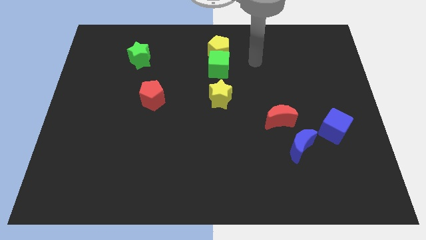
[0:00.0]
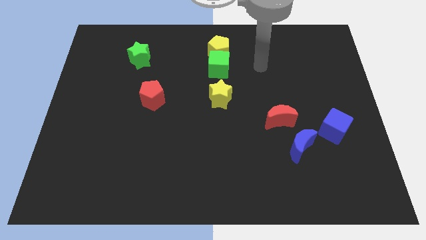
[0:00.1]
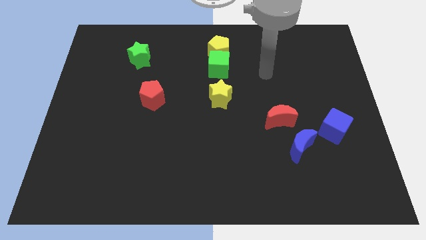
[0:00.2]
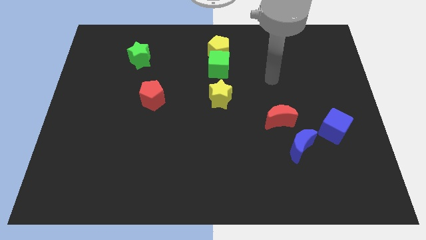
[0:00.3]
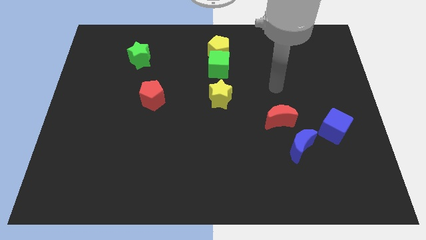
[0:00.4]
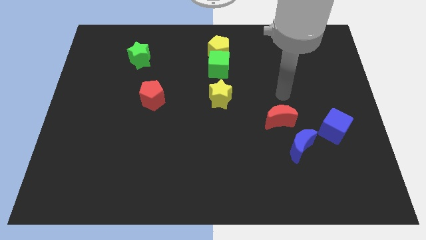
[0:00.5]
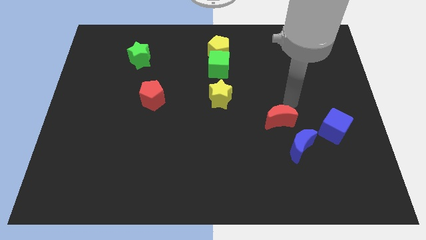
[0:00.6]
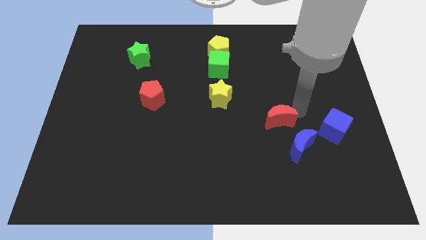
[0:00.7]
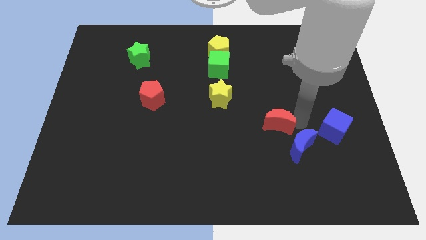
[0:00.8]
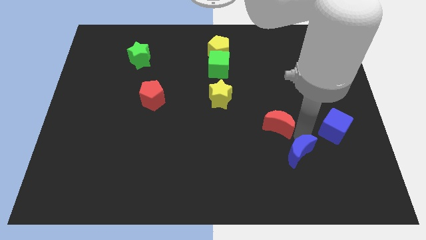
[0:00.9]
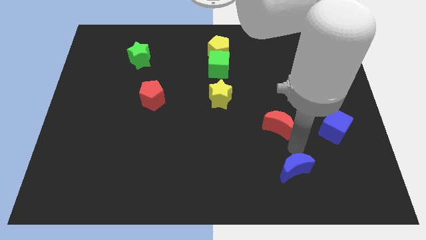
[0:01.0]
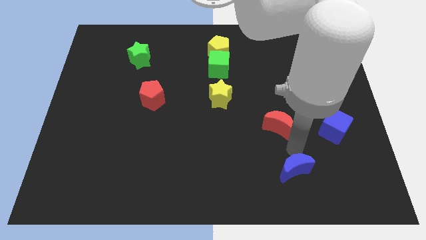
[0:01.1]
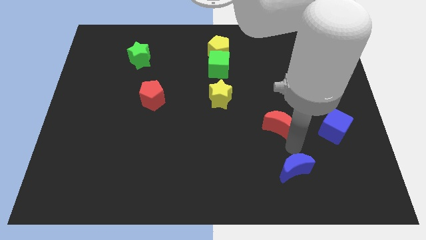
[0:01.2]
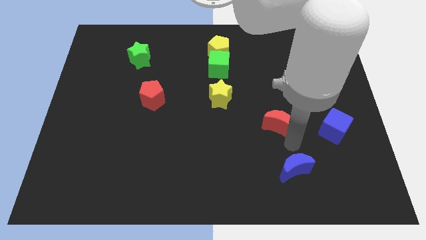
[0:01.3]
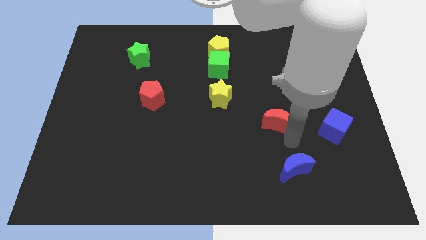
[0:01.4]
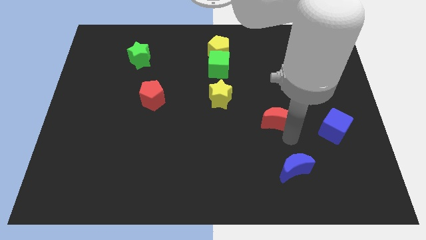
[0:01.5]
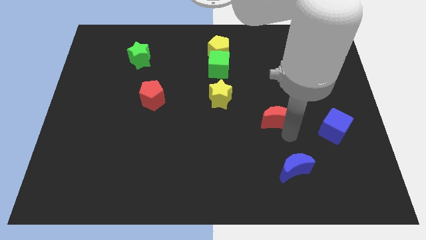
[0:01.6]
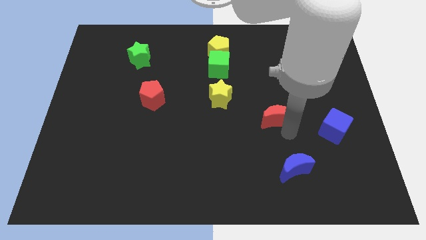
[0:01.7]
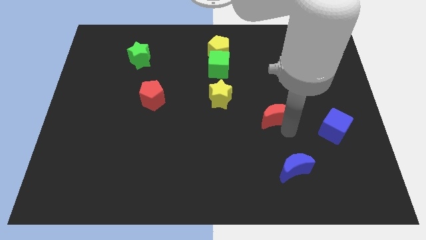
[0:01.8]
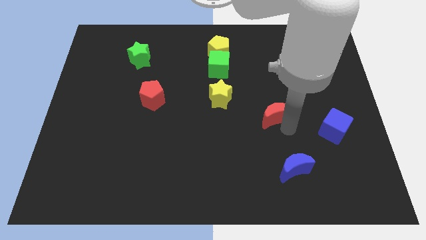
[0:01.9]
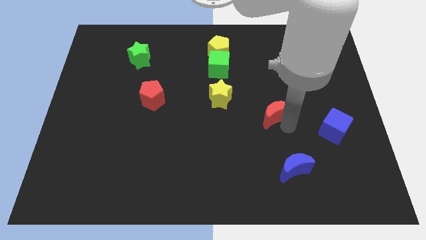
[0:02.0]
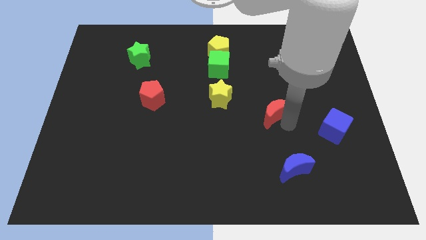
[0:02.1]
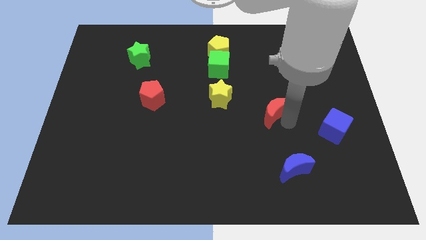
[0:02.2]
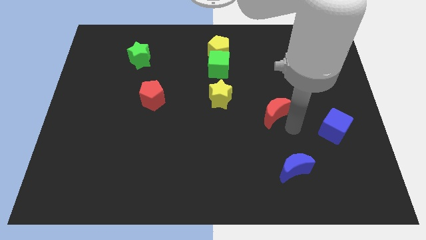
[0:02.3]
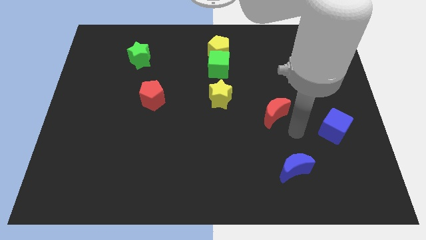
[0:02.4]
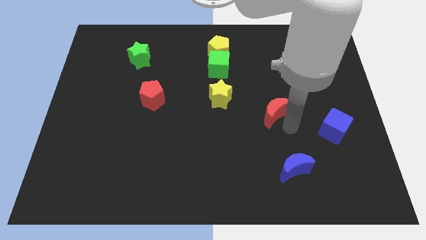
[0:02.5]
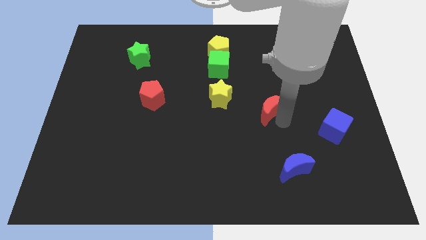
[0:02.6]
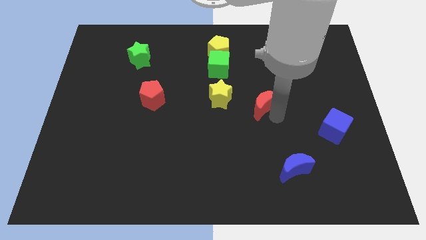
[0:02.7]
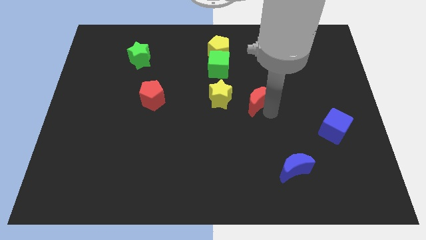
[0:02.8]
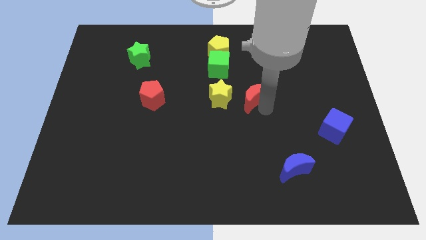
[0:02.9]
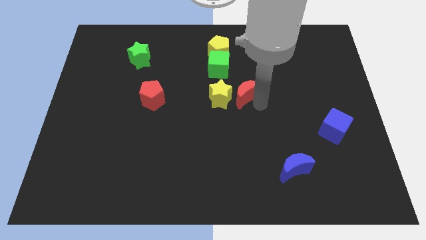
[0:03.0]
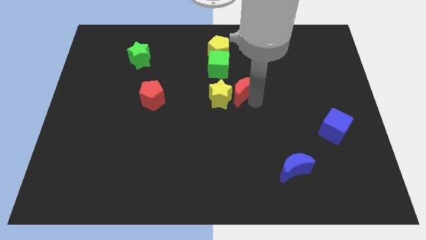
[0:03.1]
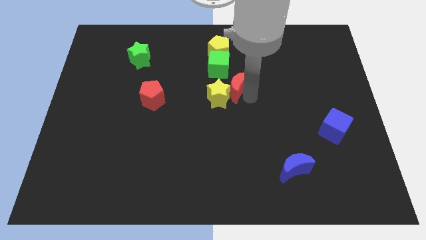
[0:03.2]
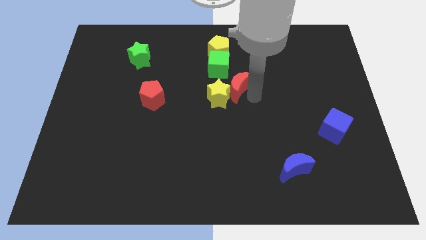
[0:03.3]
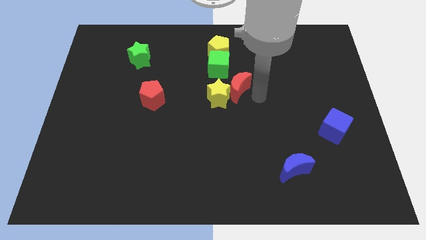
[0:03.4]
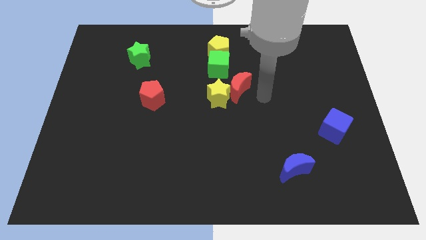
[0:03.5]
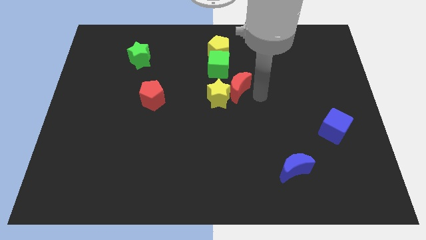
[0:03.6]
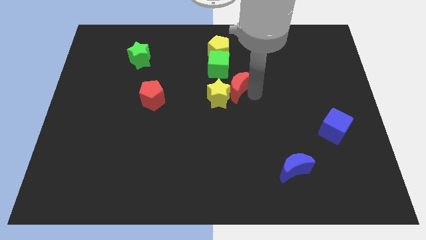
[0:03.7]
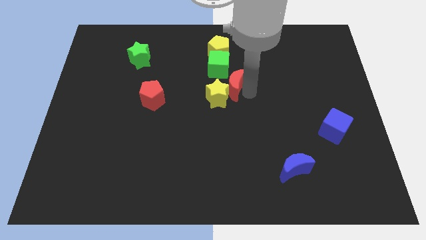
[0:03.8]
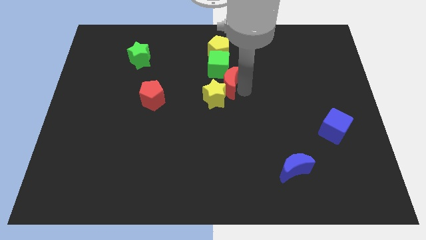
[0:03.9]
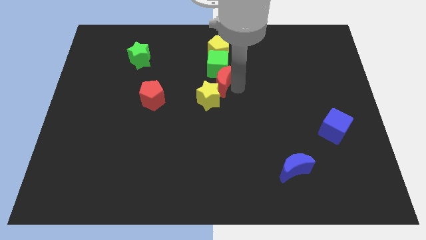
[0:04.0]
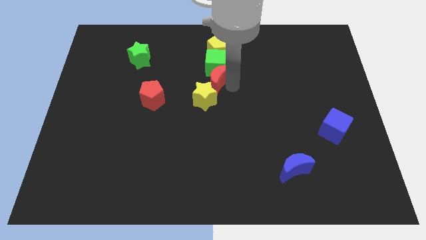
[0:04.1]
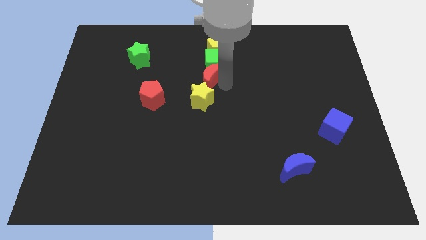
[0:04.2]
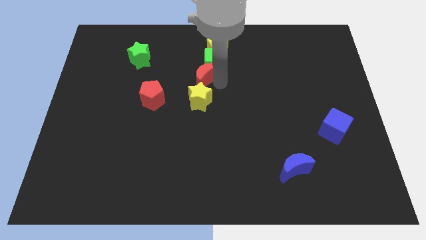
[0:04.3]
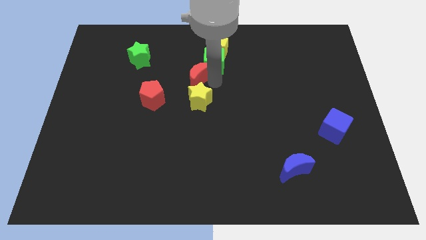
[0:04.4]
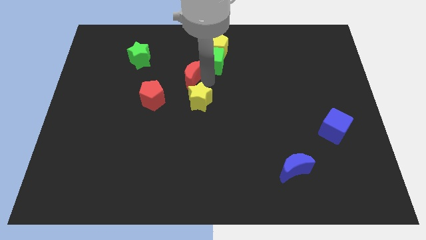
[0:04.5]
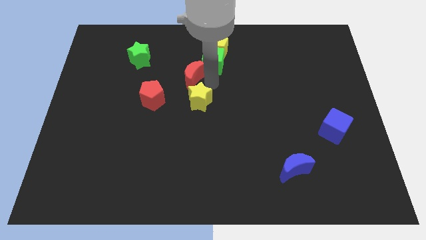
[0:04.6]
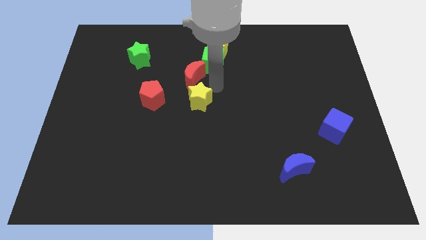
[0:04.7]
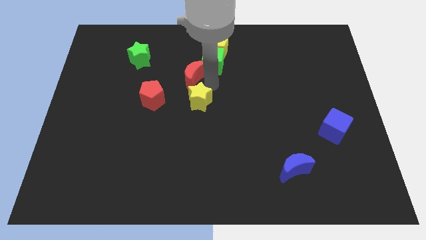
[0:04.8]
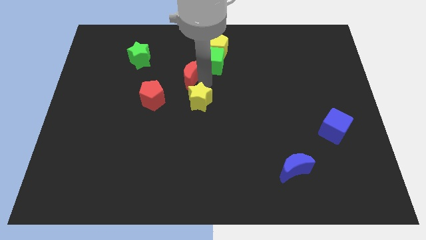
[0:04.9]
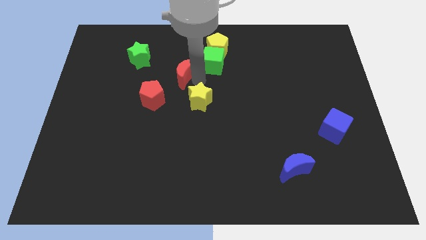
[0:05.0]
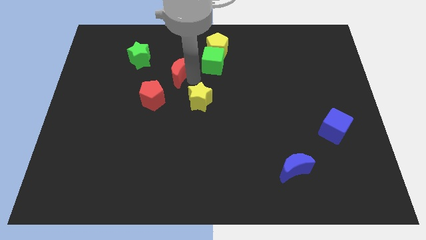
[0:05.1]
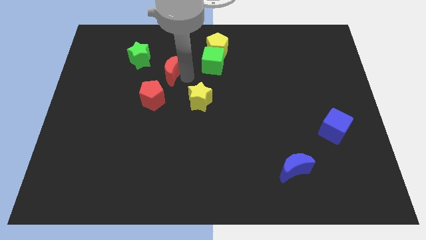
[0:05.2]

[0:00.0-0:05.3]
slide the red moon above the red pentagon

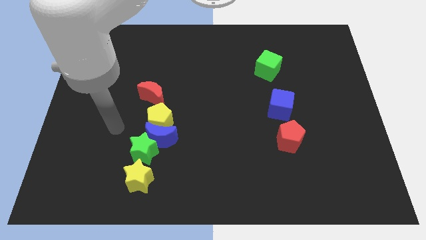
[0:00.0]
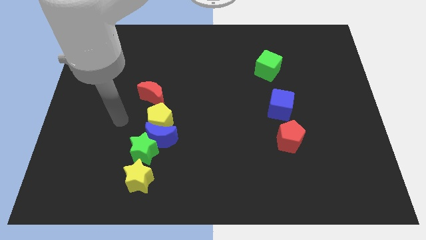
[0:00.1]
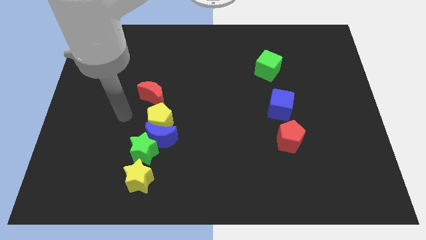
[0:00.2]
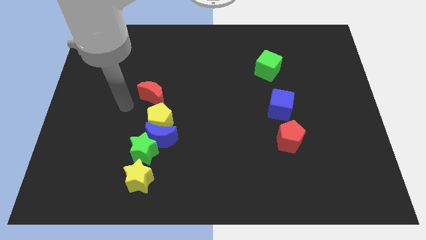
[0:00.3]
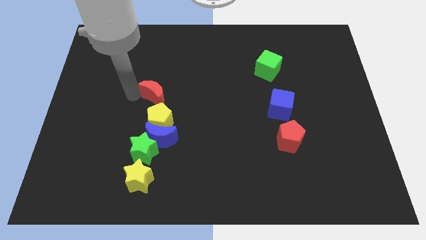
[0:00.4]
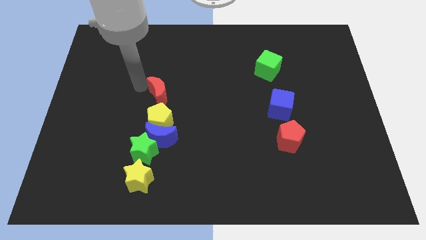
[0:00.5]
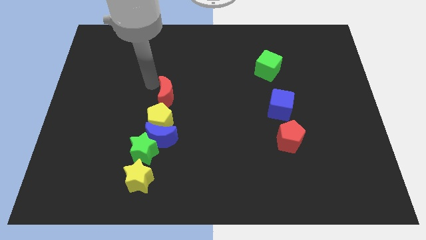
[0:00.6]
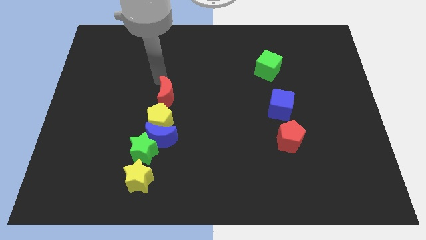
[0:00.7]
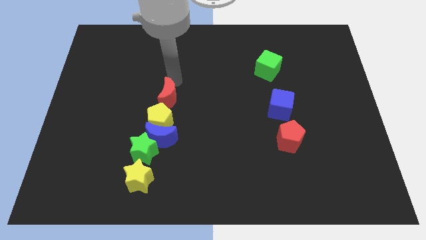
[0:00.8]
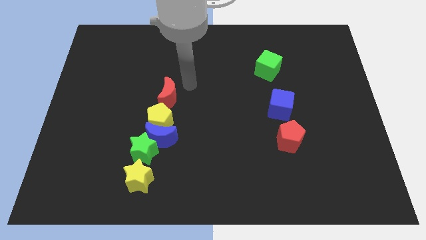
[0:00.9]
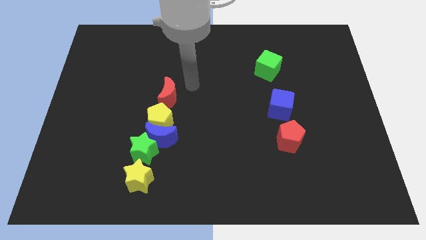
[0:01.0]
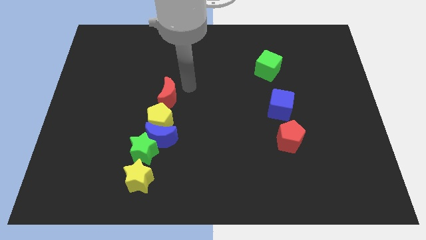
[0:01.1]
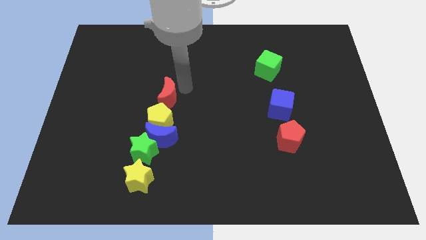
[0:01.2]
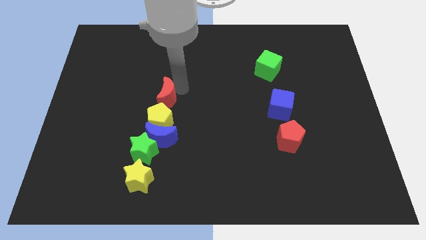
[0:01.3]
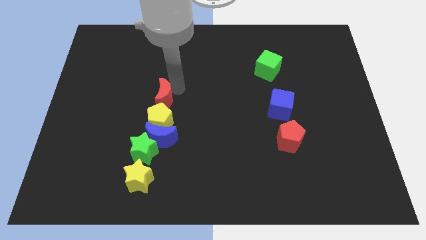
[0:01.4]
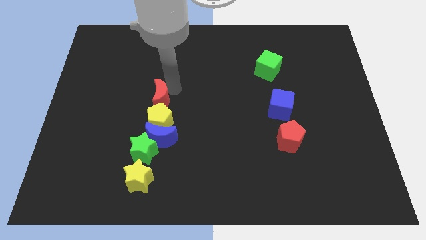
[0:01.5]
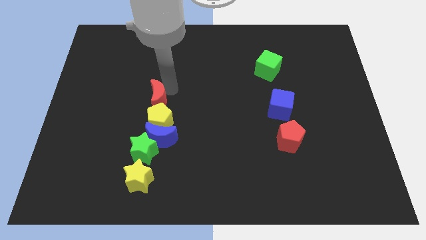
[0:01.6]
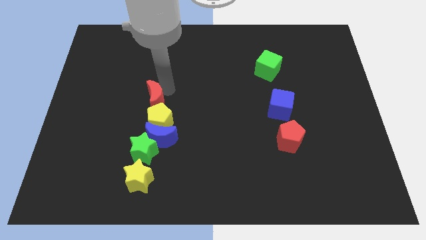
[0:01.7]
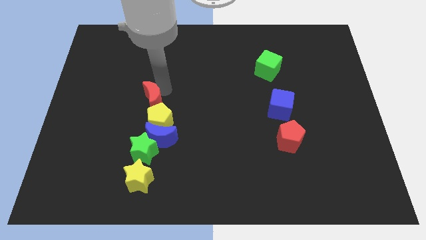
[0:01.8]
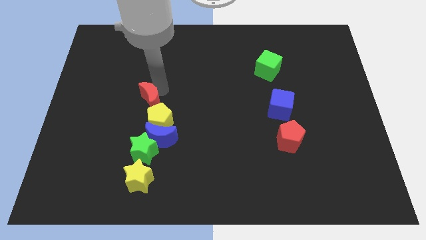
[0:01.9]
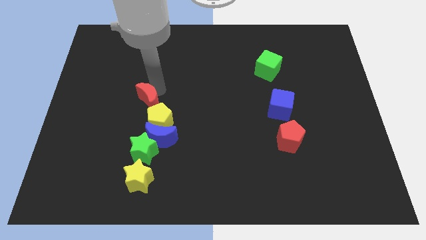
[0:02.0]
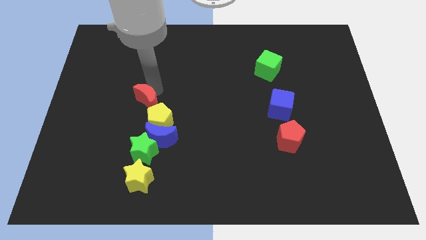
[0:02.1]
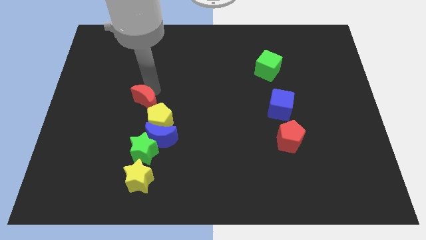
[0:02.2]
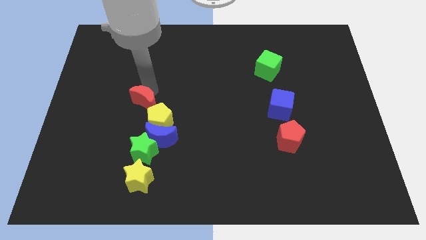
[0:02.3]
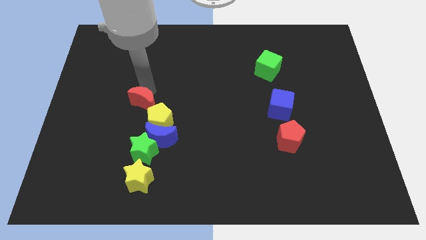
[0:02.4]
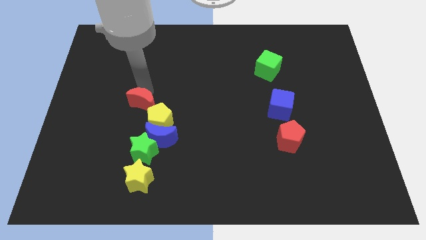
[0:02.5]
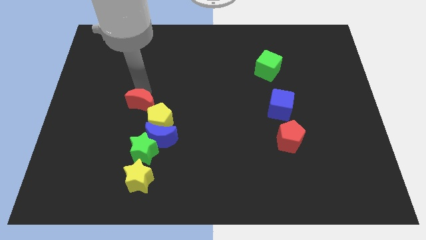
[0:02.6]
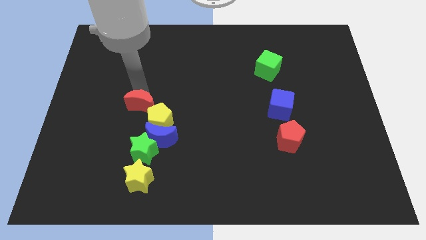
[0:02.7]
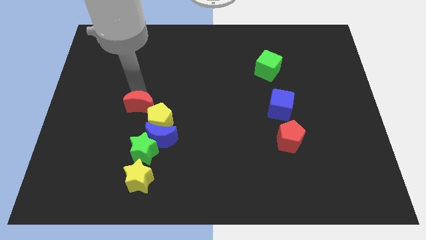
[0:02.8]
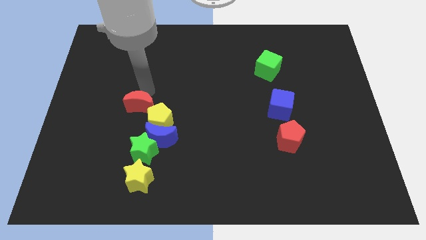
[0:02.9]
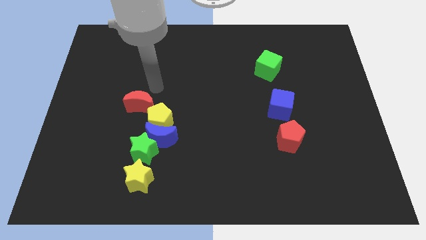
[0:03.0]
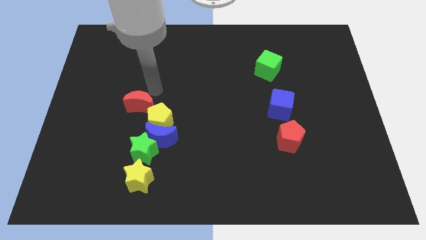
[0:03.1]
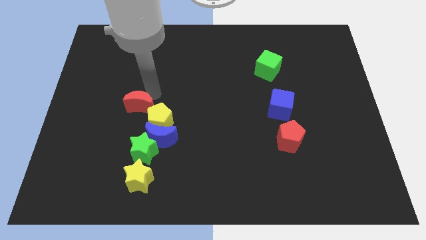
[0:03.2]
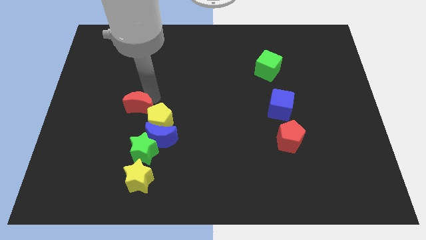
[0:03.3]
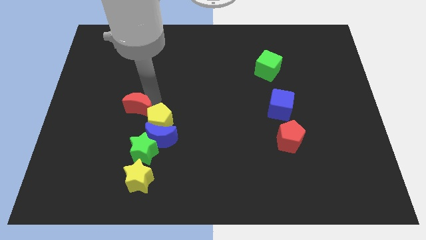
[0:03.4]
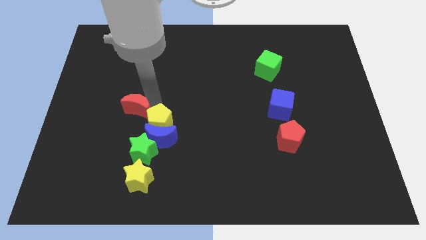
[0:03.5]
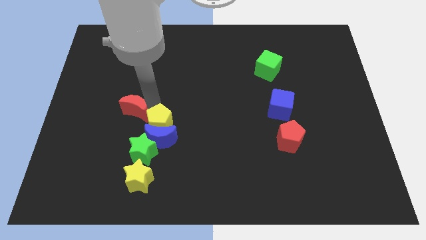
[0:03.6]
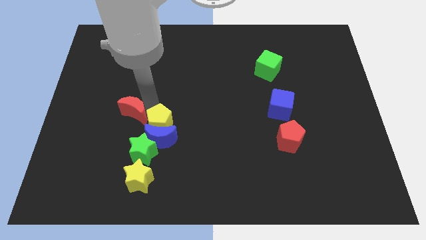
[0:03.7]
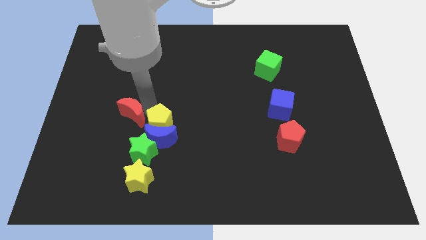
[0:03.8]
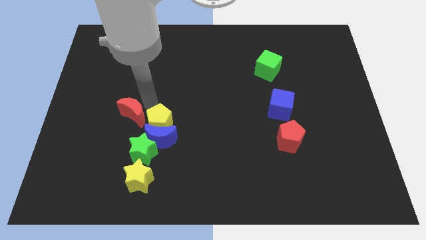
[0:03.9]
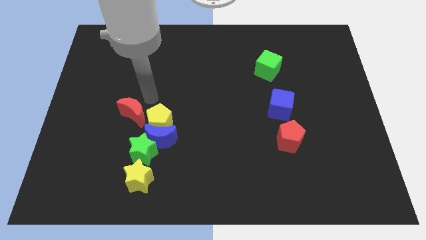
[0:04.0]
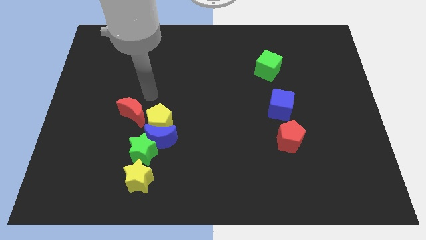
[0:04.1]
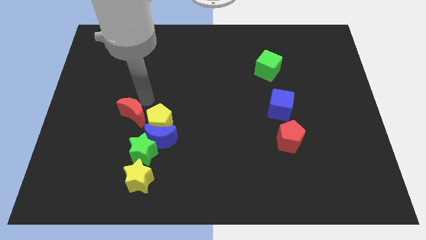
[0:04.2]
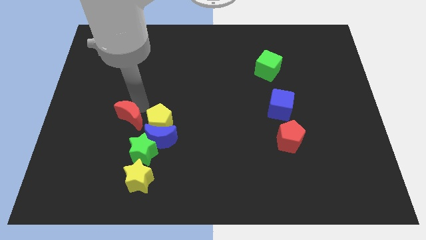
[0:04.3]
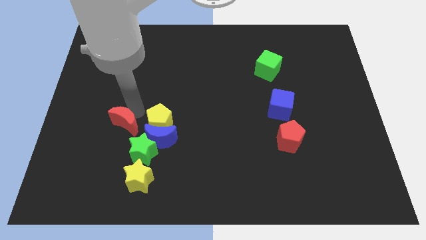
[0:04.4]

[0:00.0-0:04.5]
push the red moon just left of the blue moon
